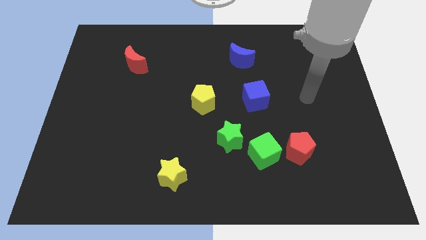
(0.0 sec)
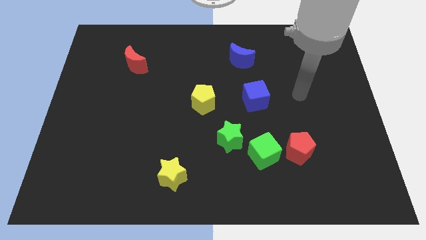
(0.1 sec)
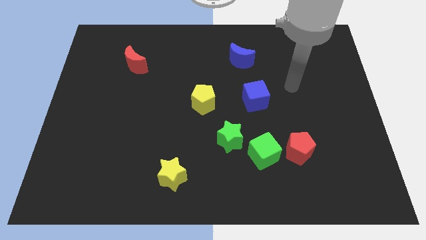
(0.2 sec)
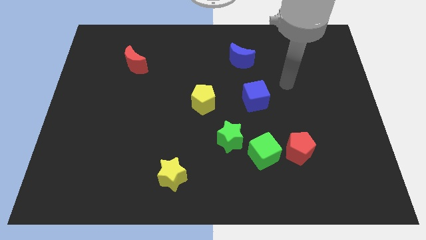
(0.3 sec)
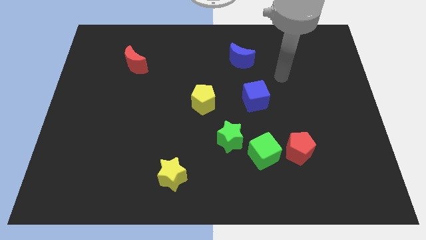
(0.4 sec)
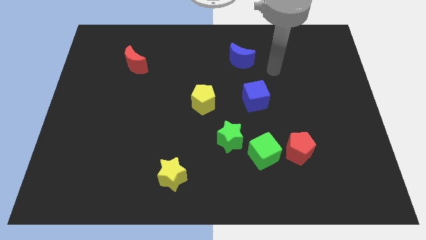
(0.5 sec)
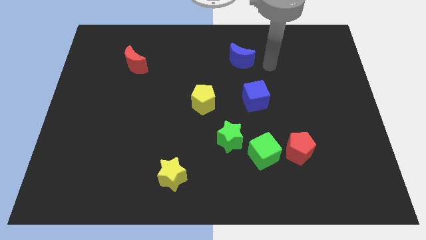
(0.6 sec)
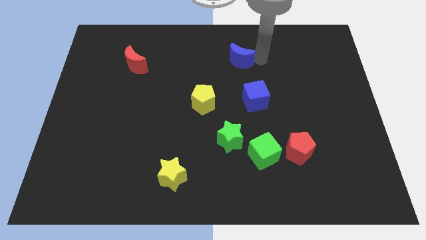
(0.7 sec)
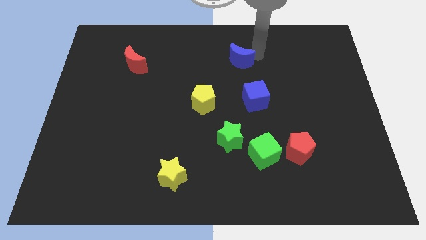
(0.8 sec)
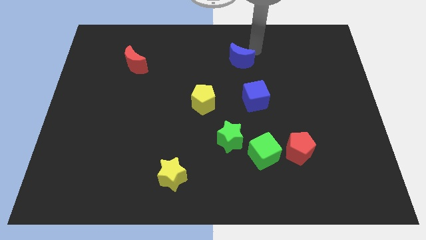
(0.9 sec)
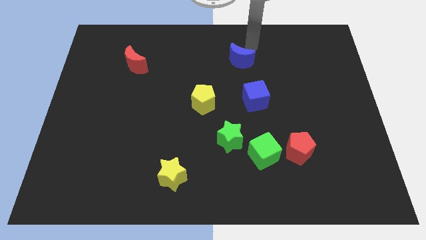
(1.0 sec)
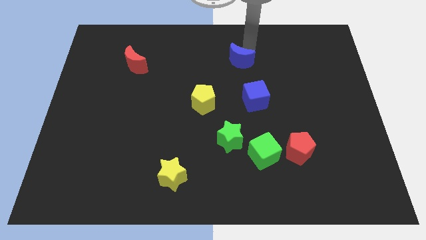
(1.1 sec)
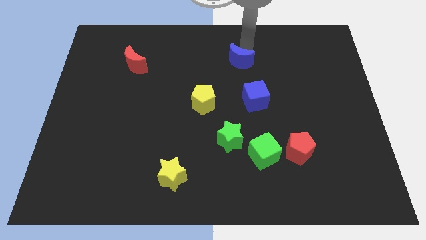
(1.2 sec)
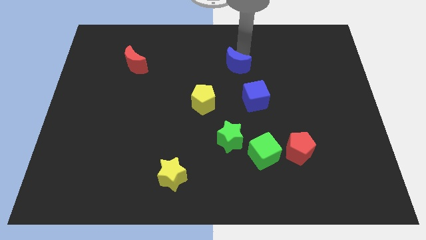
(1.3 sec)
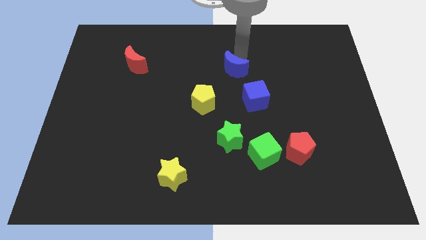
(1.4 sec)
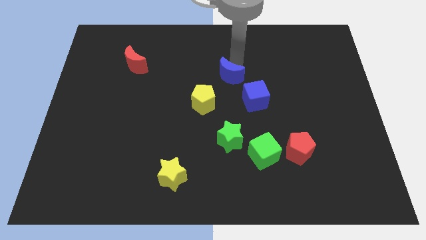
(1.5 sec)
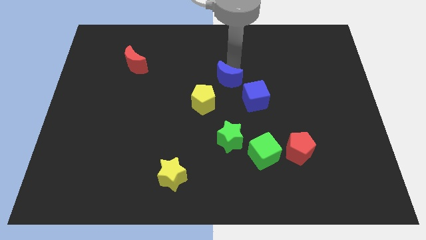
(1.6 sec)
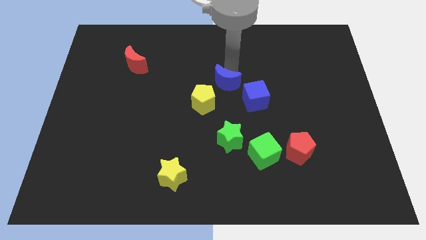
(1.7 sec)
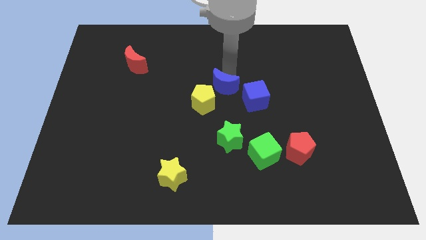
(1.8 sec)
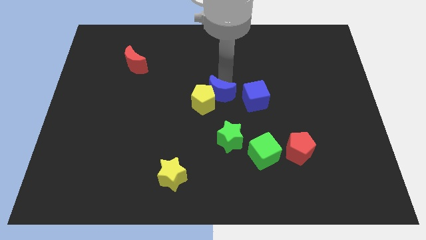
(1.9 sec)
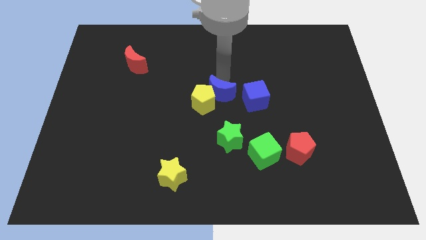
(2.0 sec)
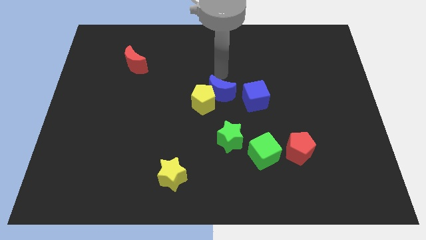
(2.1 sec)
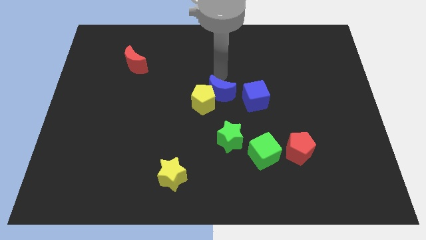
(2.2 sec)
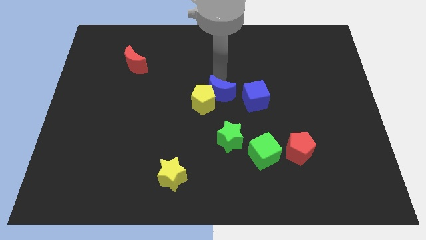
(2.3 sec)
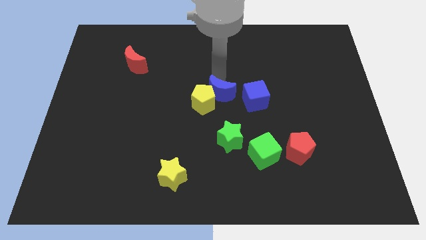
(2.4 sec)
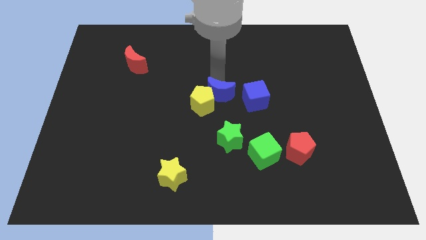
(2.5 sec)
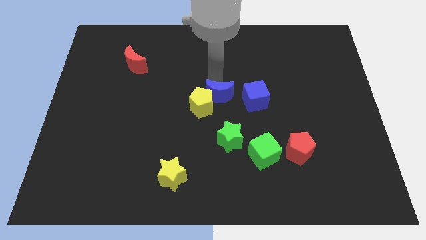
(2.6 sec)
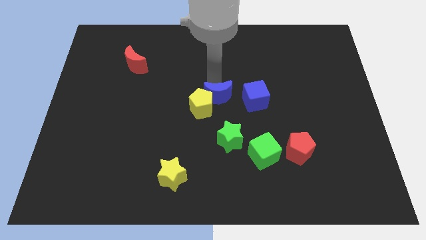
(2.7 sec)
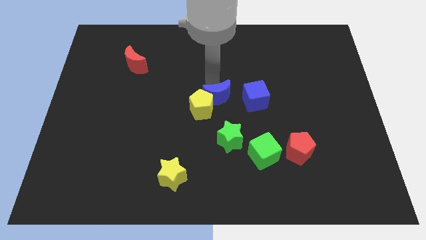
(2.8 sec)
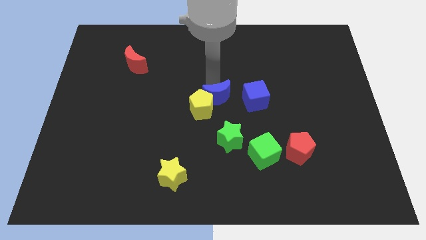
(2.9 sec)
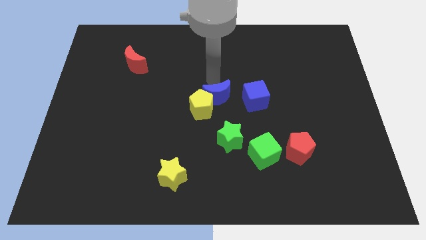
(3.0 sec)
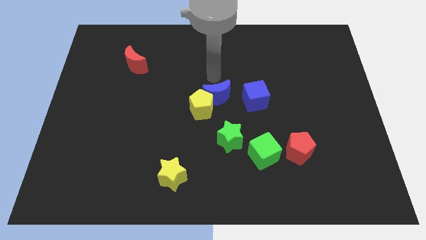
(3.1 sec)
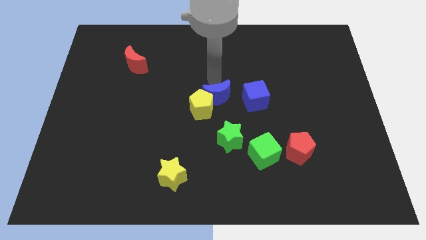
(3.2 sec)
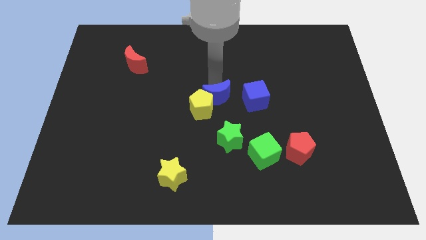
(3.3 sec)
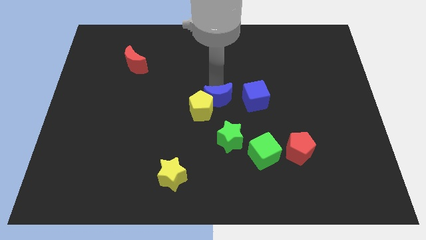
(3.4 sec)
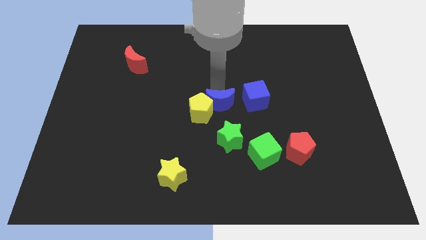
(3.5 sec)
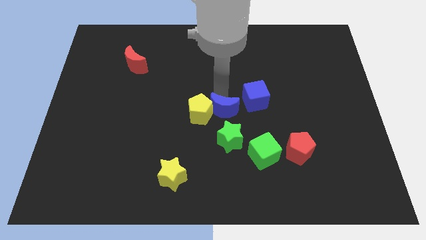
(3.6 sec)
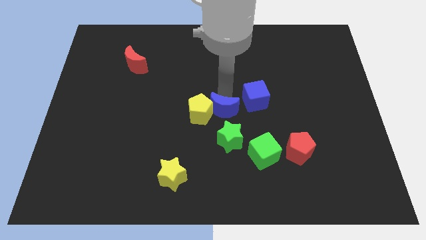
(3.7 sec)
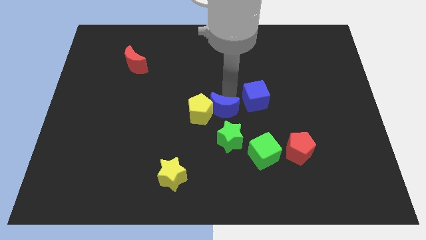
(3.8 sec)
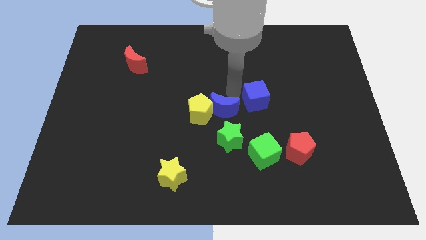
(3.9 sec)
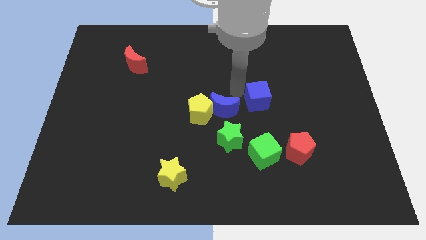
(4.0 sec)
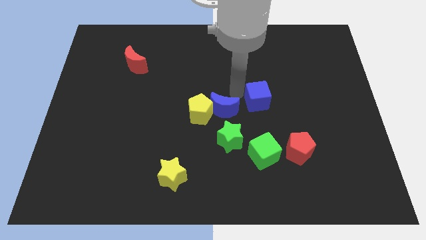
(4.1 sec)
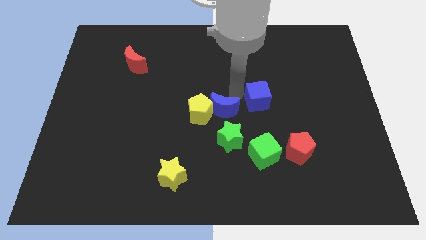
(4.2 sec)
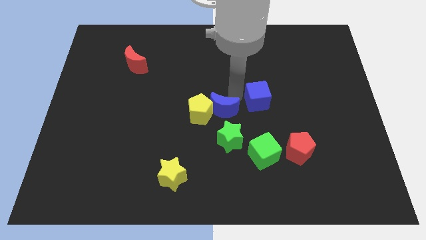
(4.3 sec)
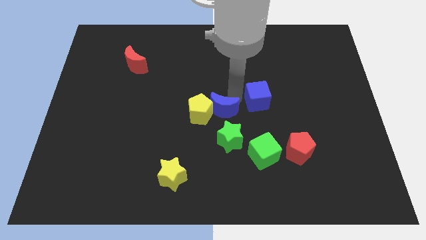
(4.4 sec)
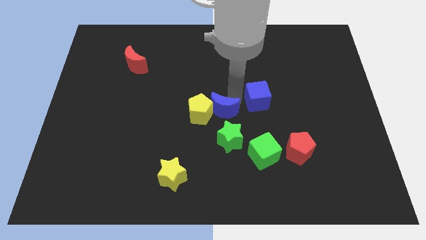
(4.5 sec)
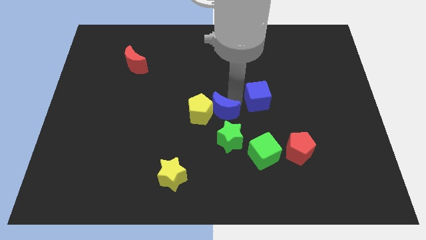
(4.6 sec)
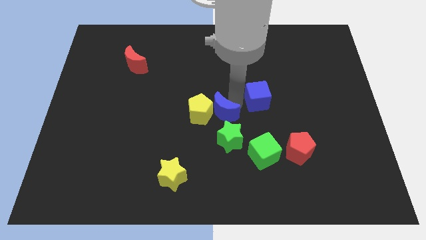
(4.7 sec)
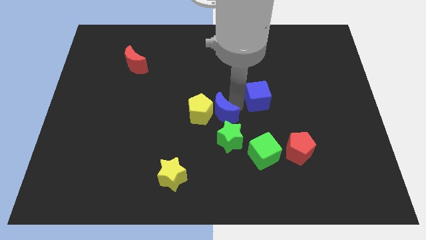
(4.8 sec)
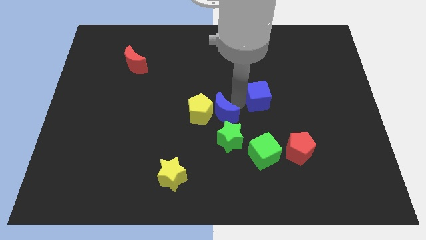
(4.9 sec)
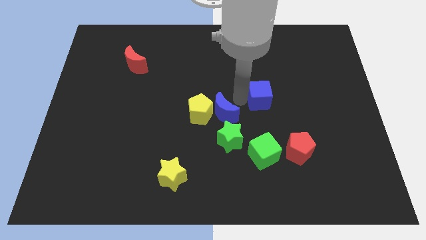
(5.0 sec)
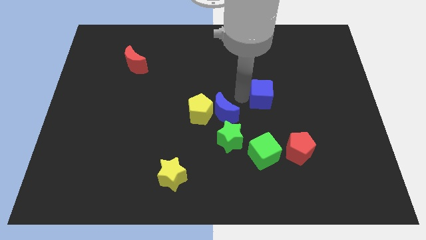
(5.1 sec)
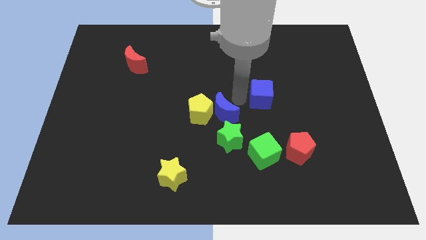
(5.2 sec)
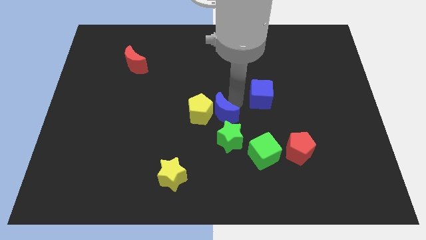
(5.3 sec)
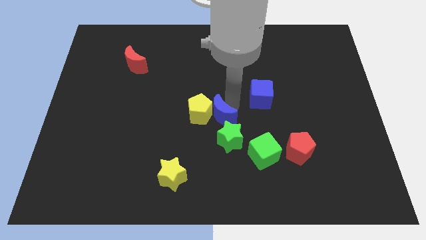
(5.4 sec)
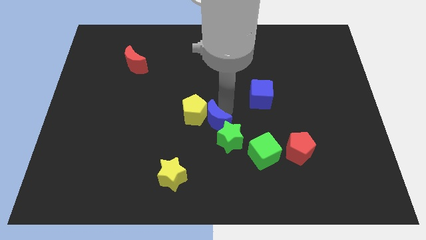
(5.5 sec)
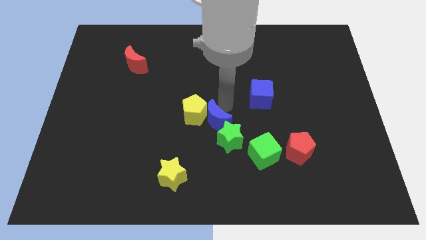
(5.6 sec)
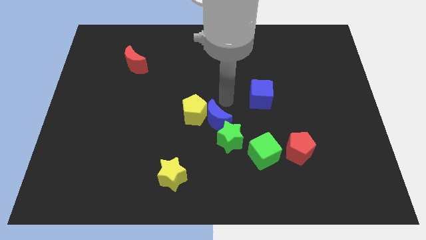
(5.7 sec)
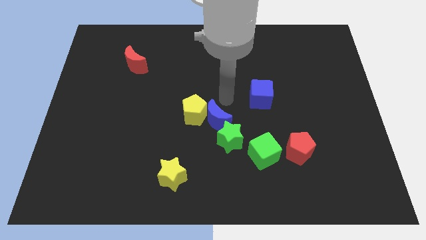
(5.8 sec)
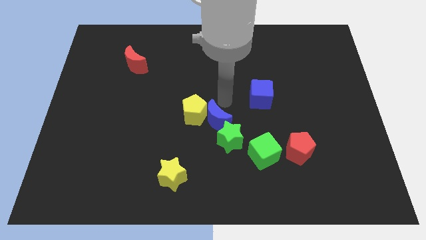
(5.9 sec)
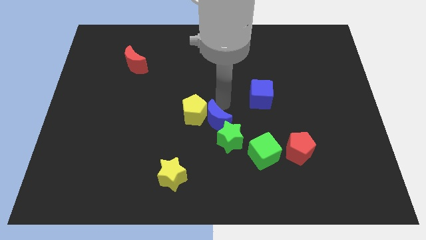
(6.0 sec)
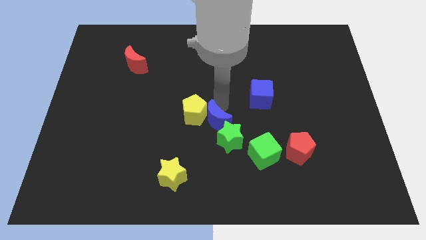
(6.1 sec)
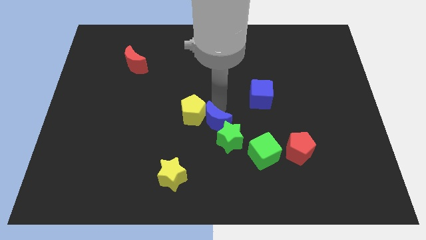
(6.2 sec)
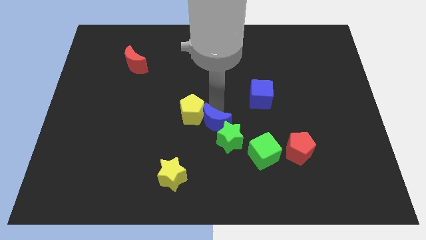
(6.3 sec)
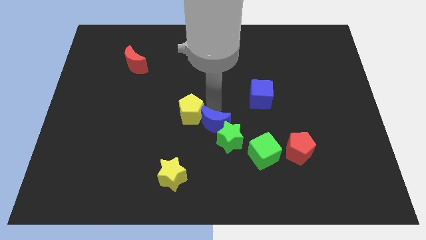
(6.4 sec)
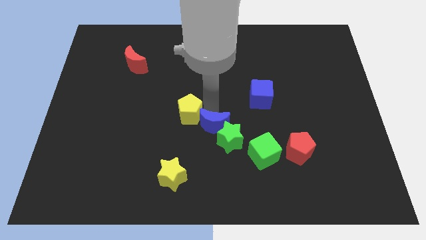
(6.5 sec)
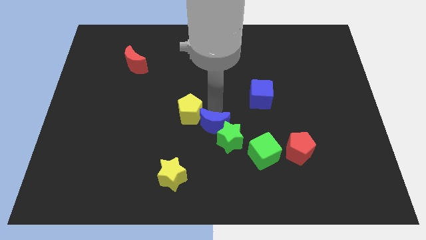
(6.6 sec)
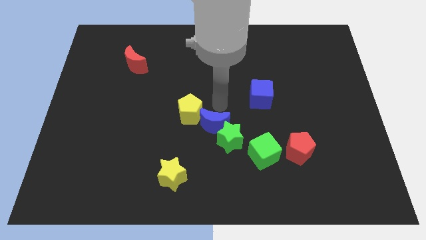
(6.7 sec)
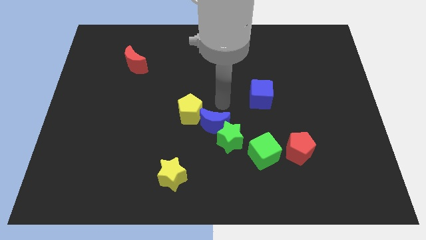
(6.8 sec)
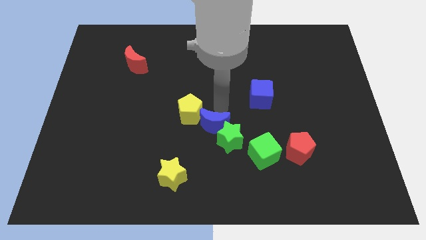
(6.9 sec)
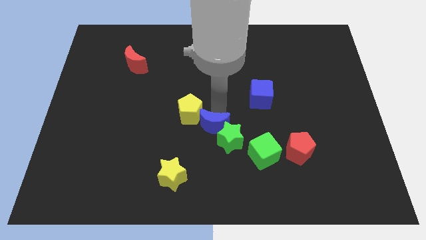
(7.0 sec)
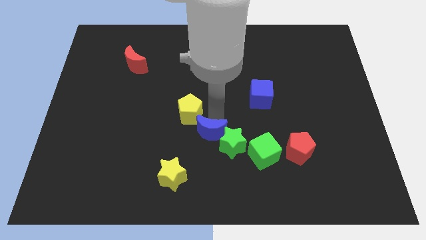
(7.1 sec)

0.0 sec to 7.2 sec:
push the blue moon downwards

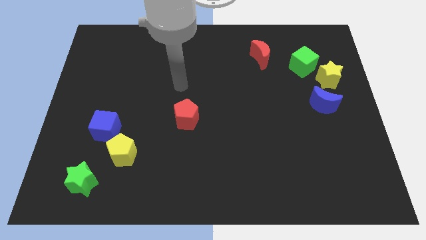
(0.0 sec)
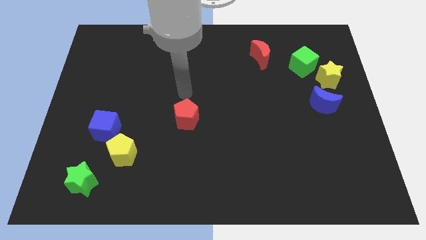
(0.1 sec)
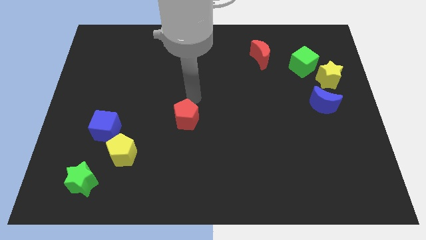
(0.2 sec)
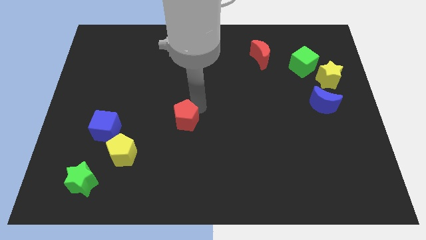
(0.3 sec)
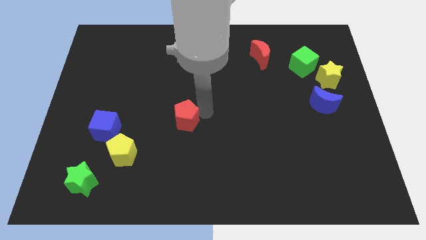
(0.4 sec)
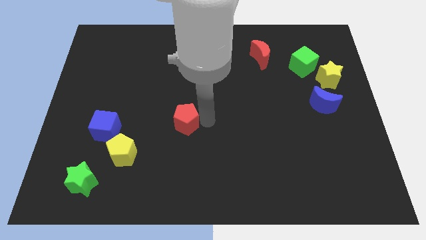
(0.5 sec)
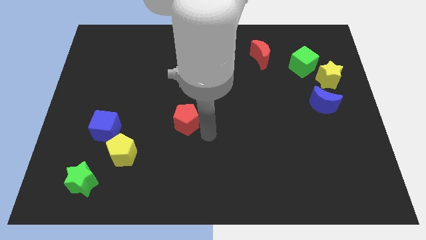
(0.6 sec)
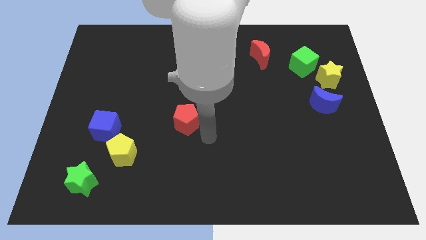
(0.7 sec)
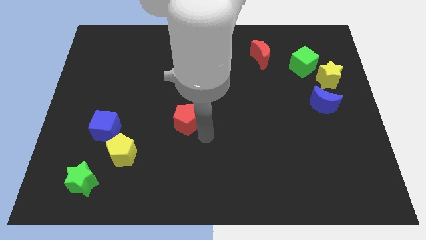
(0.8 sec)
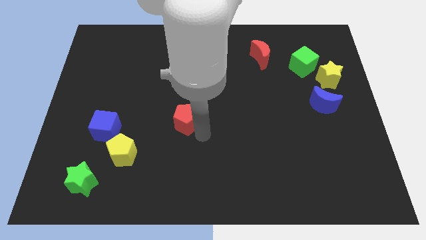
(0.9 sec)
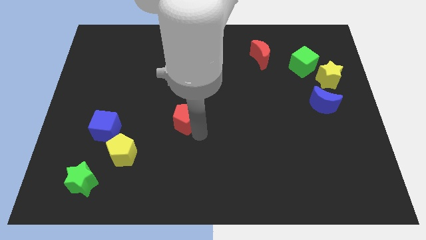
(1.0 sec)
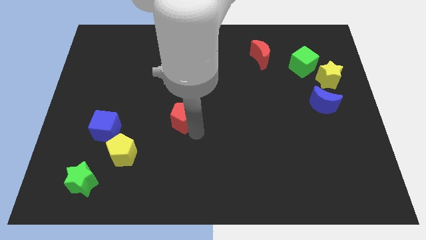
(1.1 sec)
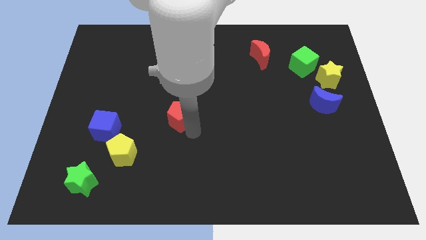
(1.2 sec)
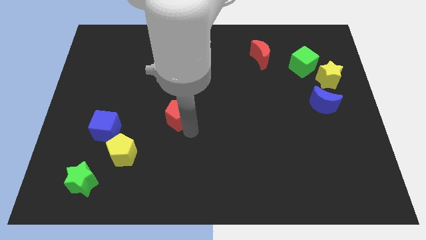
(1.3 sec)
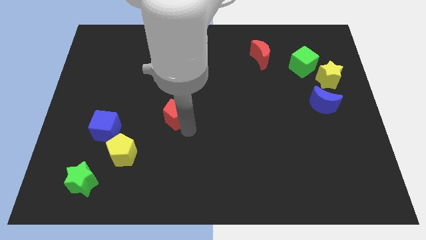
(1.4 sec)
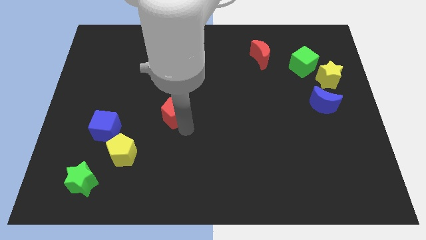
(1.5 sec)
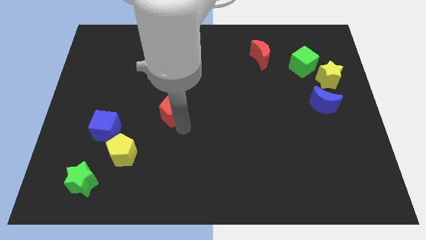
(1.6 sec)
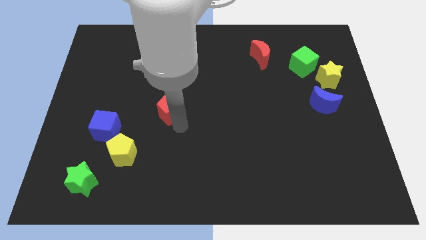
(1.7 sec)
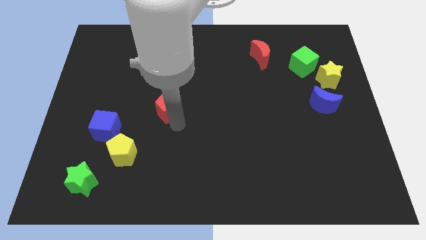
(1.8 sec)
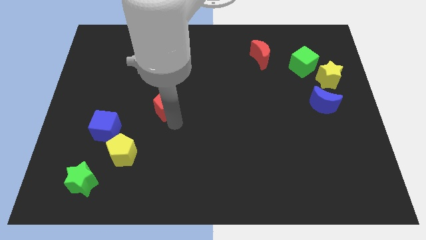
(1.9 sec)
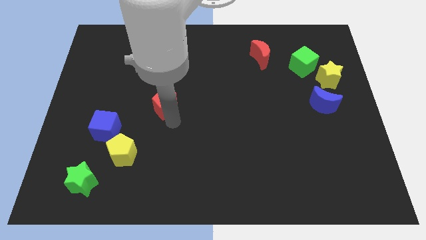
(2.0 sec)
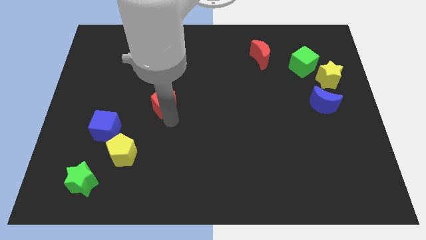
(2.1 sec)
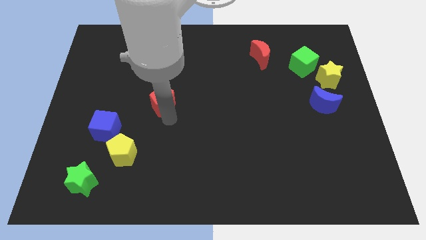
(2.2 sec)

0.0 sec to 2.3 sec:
slightly move the red pentagon upwards and left
